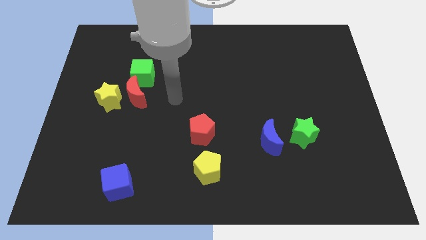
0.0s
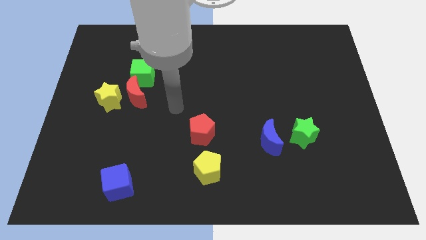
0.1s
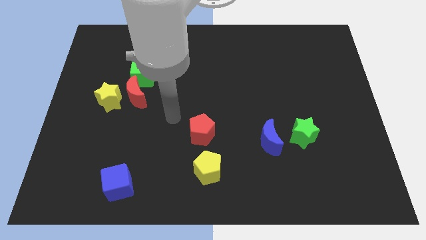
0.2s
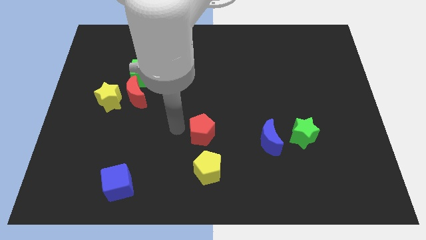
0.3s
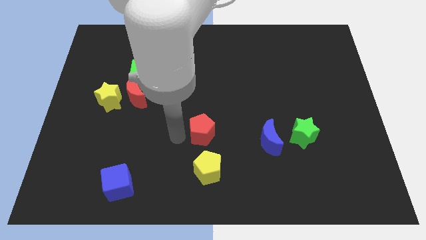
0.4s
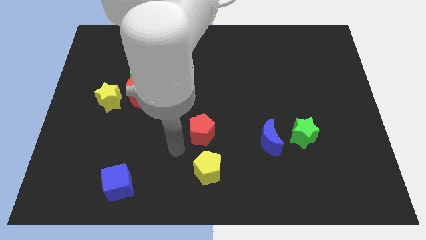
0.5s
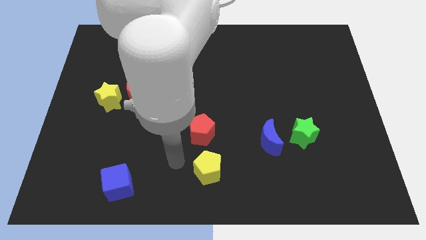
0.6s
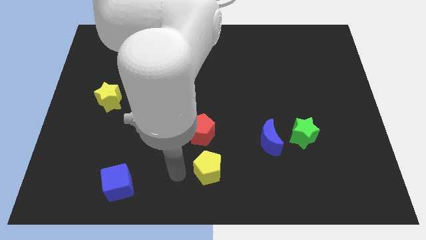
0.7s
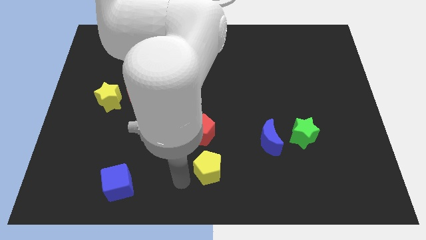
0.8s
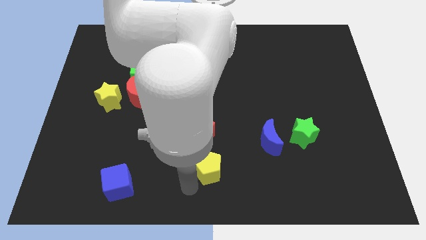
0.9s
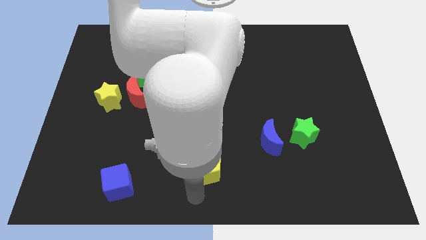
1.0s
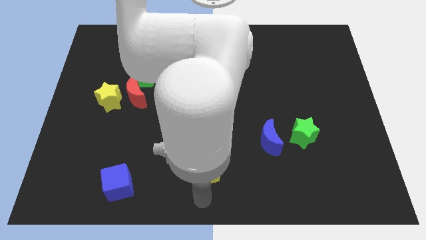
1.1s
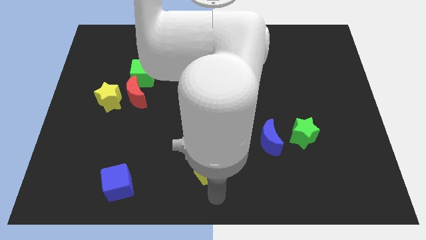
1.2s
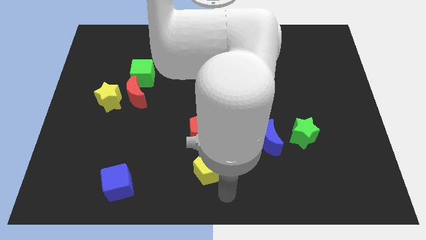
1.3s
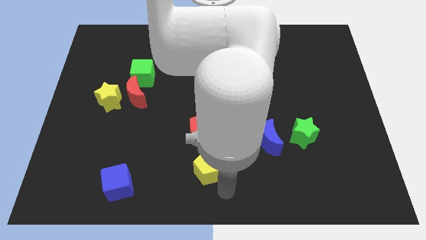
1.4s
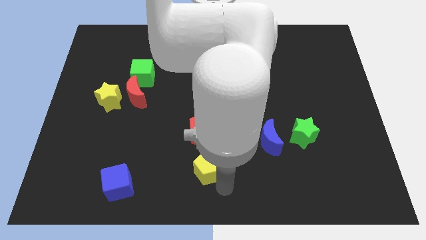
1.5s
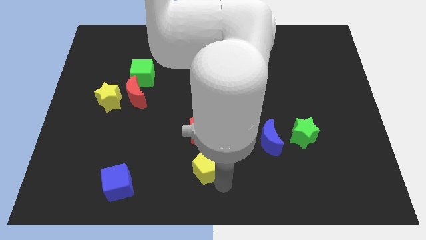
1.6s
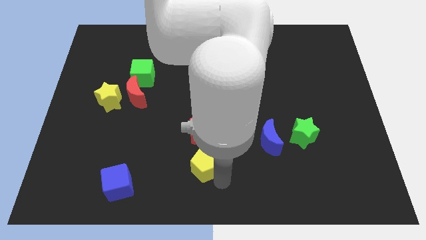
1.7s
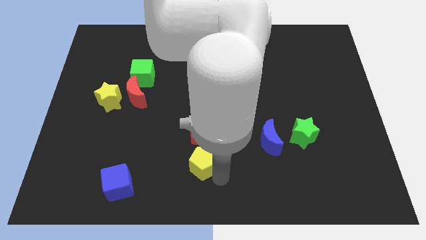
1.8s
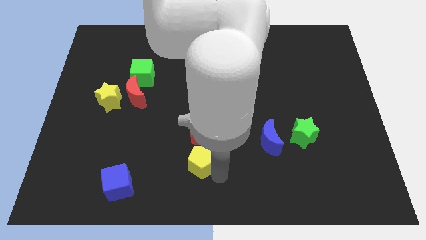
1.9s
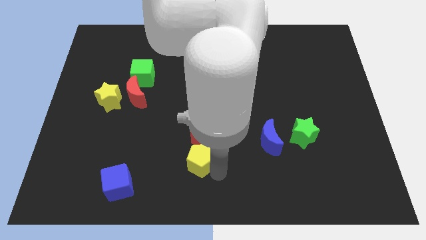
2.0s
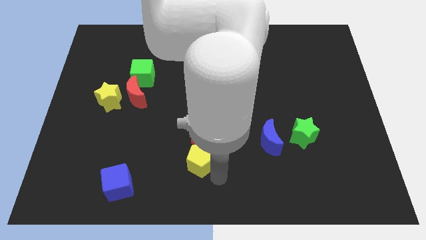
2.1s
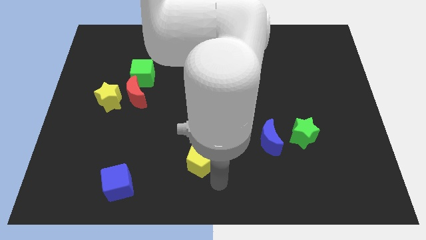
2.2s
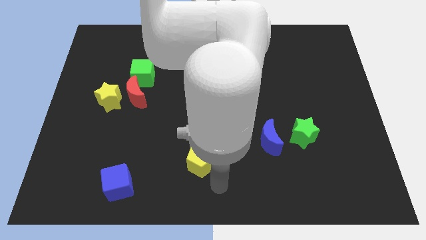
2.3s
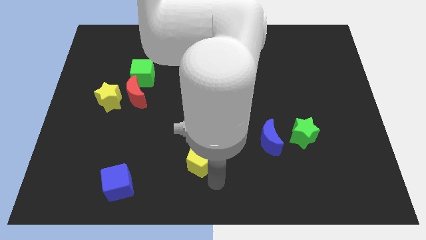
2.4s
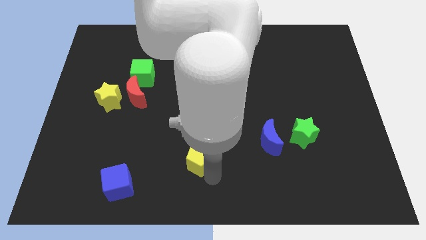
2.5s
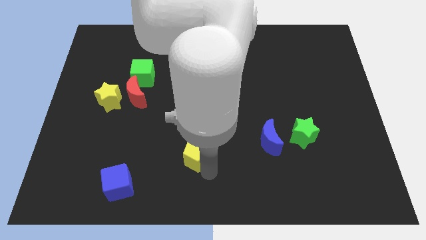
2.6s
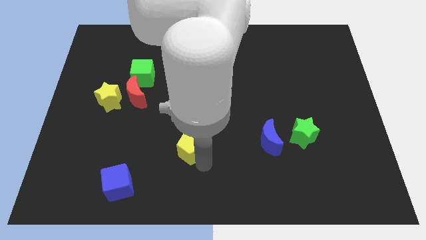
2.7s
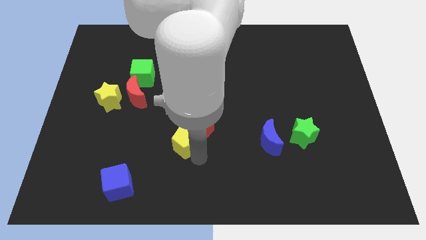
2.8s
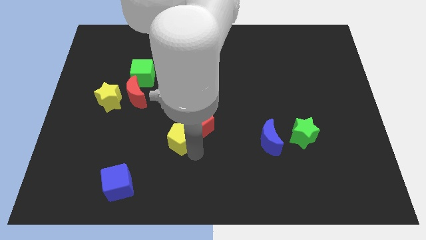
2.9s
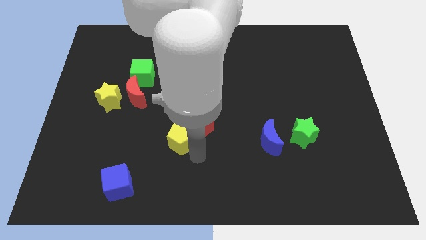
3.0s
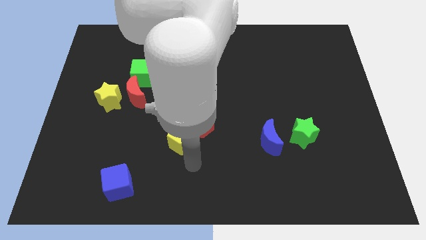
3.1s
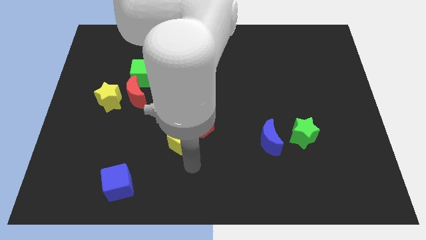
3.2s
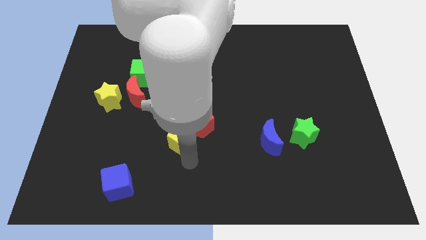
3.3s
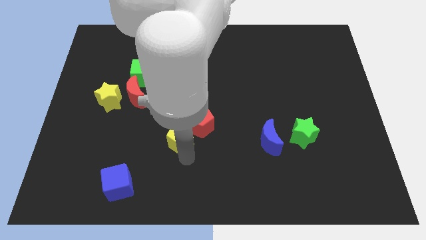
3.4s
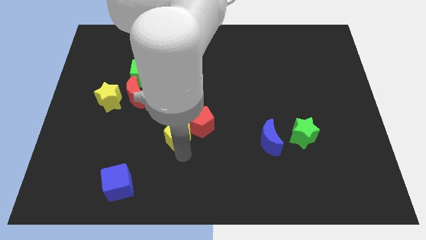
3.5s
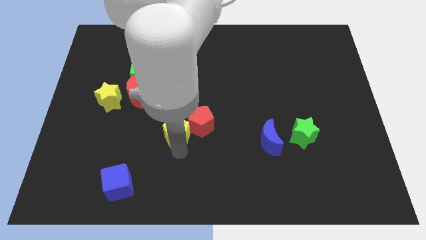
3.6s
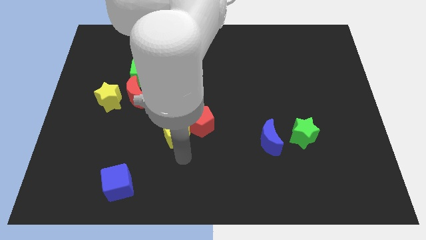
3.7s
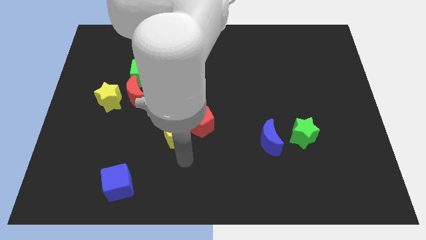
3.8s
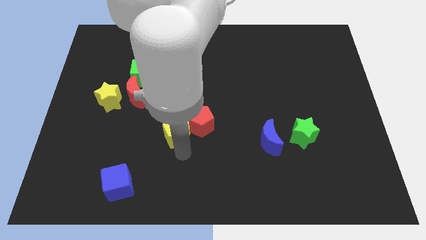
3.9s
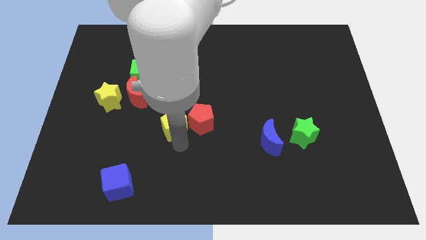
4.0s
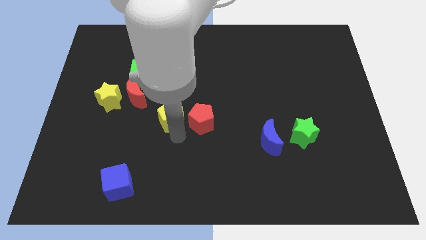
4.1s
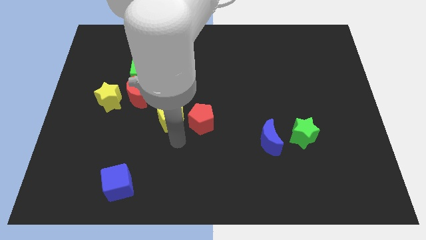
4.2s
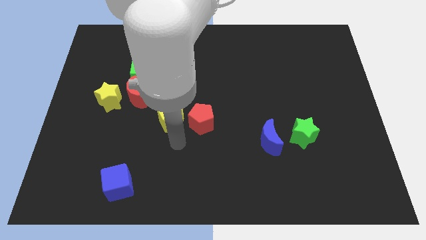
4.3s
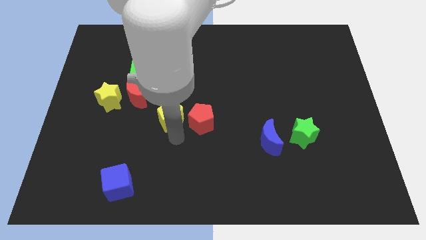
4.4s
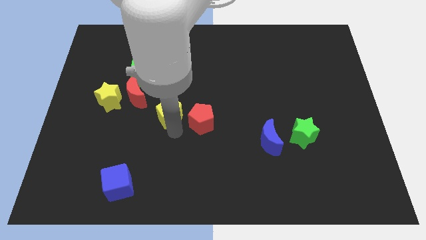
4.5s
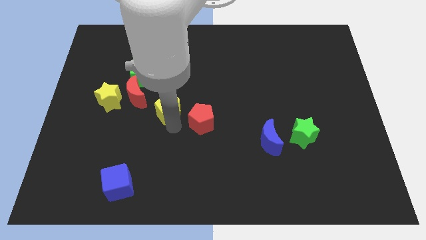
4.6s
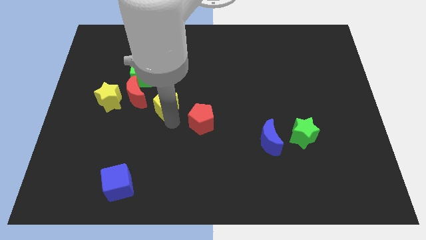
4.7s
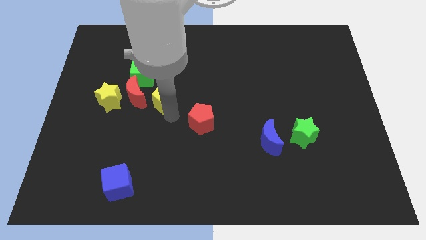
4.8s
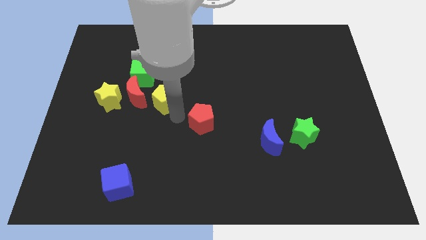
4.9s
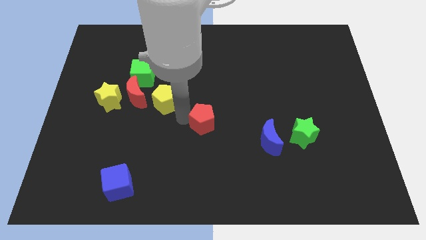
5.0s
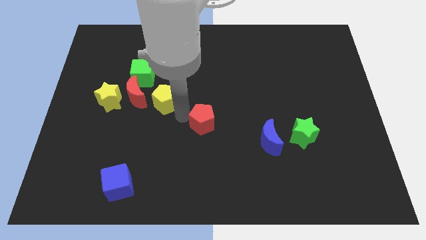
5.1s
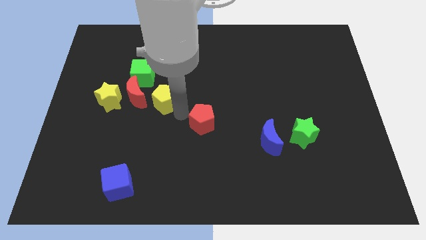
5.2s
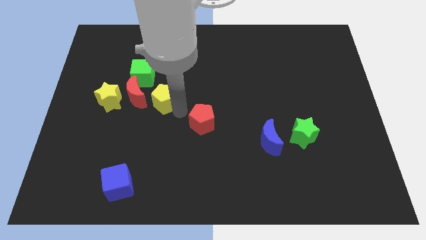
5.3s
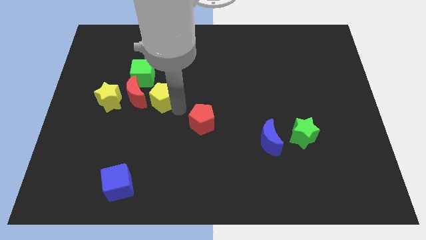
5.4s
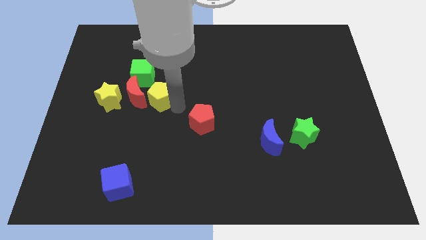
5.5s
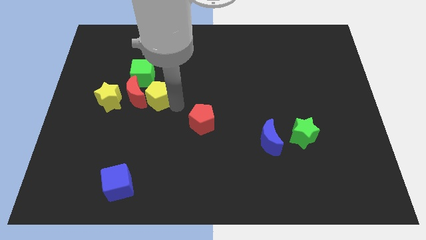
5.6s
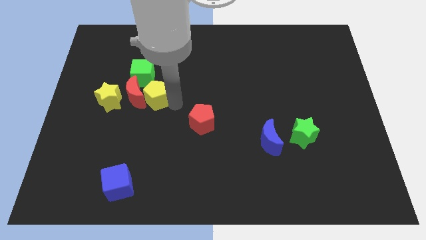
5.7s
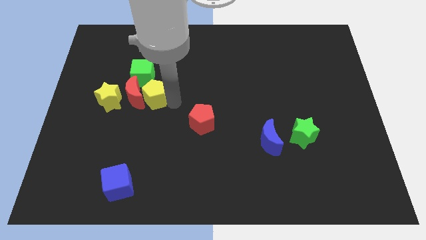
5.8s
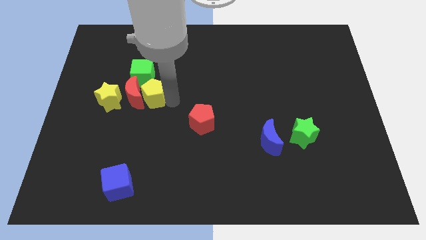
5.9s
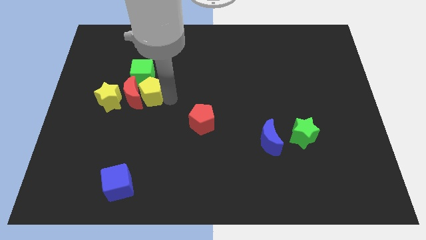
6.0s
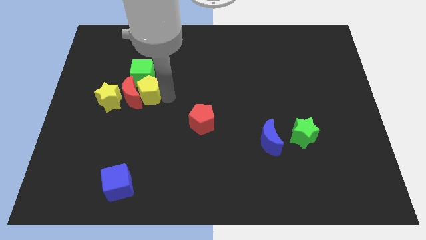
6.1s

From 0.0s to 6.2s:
move the yellow pentagon to the green cube

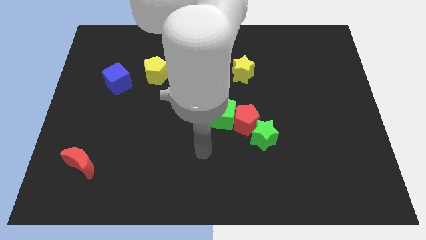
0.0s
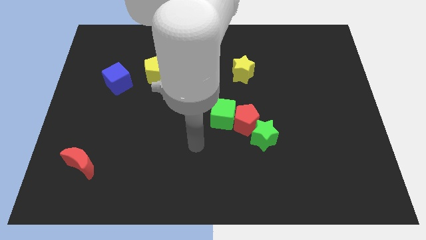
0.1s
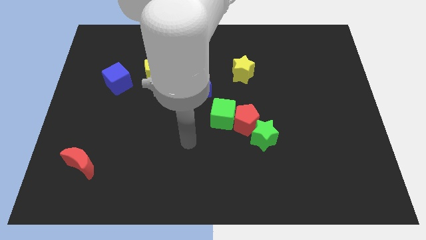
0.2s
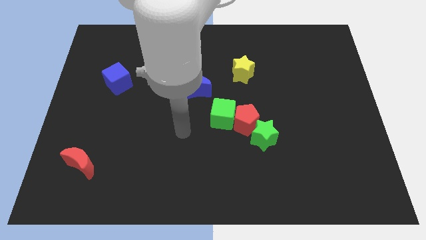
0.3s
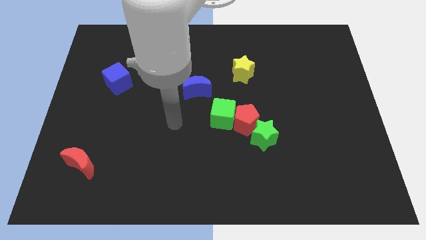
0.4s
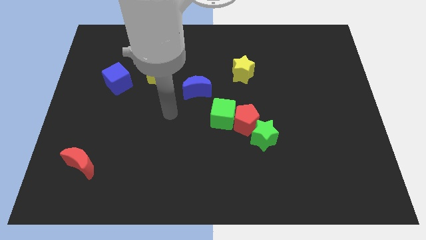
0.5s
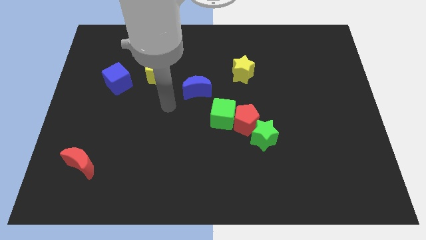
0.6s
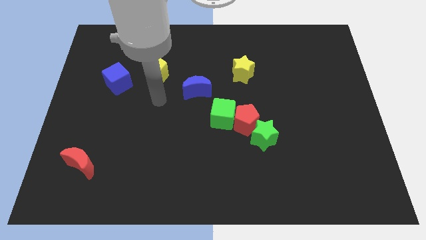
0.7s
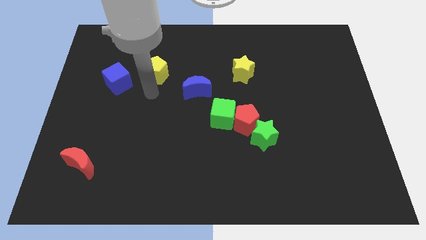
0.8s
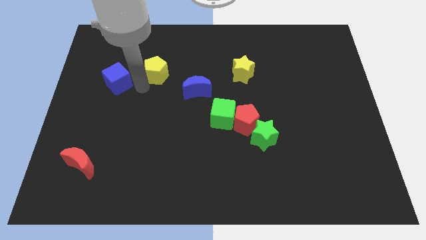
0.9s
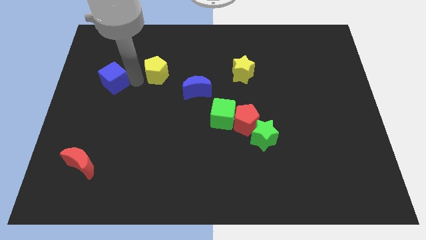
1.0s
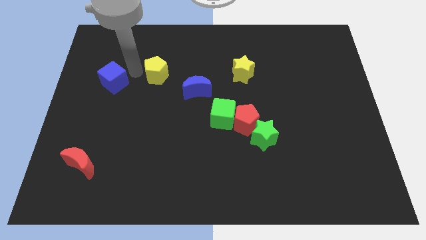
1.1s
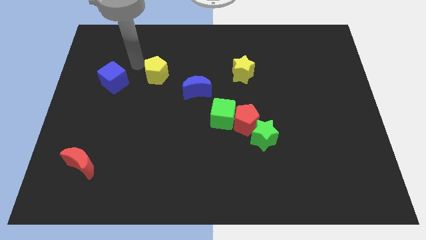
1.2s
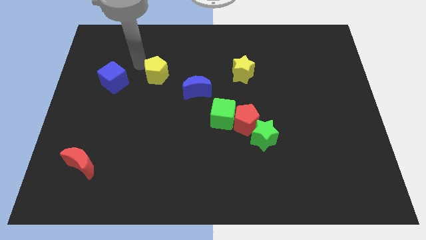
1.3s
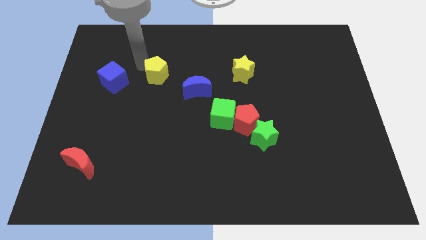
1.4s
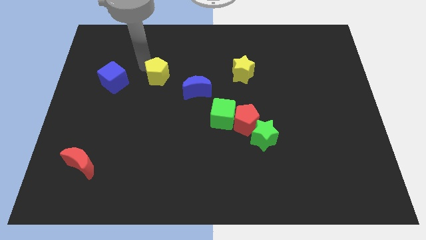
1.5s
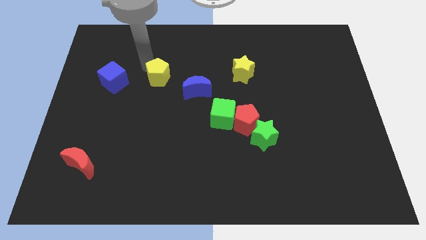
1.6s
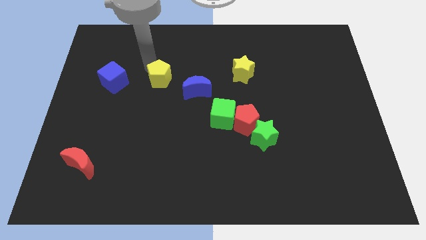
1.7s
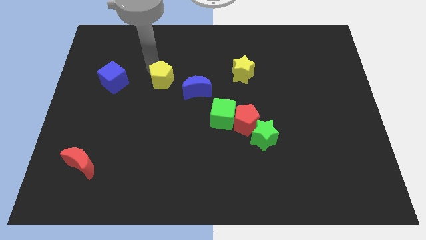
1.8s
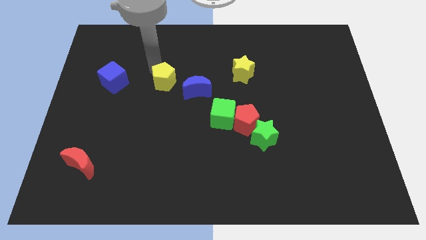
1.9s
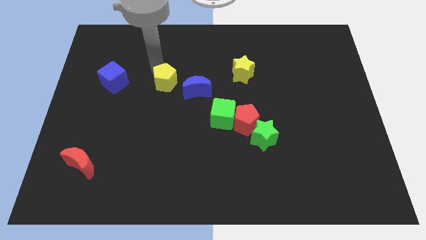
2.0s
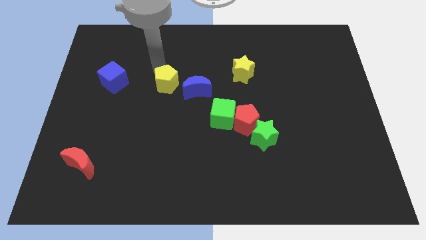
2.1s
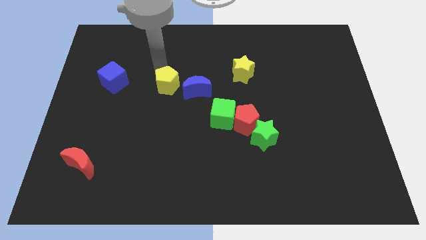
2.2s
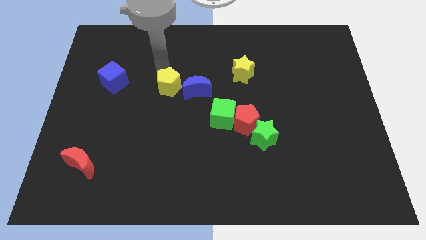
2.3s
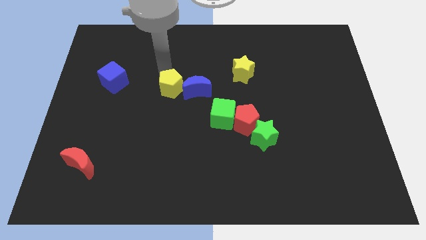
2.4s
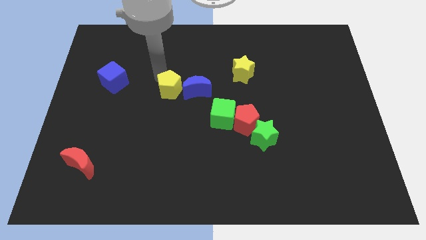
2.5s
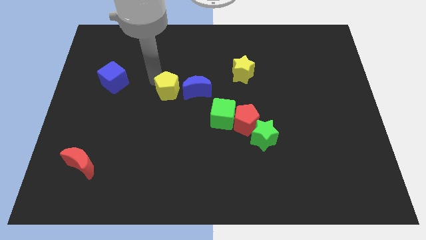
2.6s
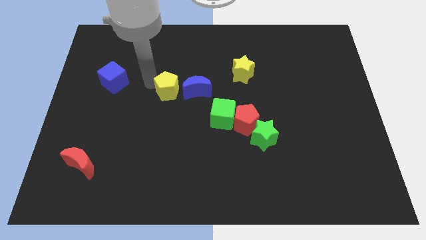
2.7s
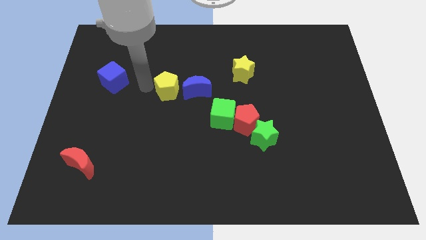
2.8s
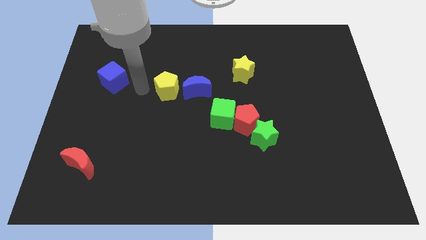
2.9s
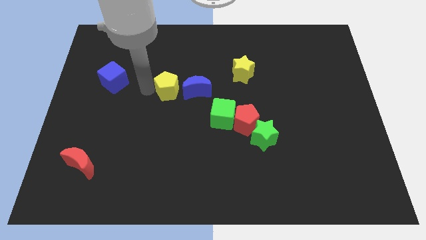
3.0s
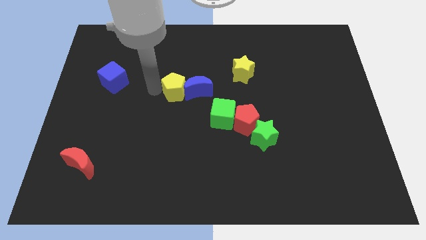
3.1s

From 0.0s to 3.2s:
push the yellow pentagon towards the blue moon
